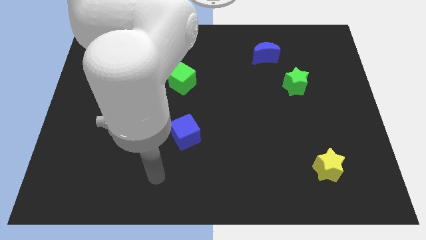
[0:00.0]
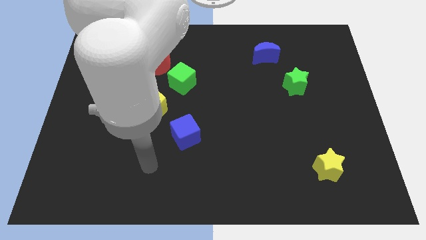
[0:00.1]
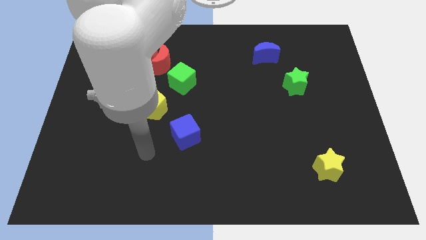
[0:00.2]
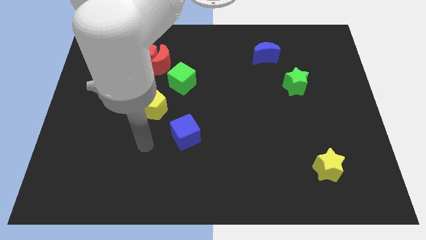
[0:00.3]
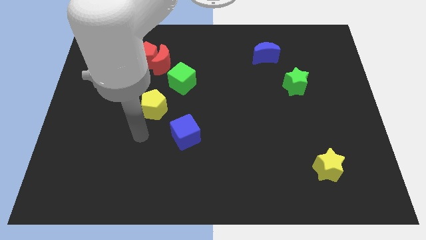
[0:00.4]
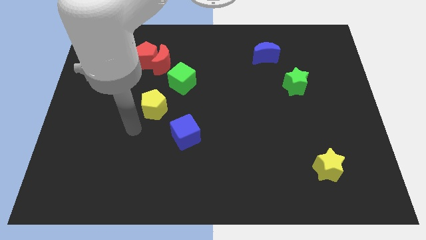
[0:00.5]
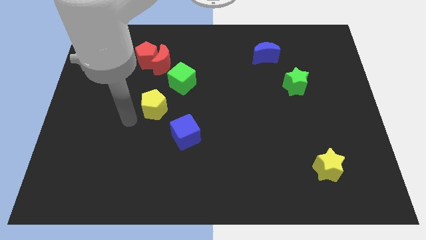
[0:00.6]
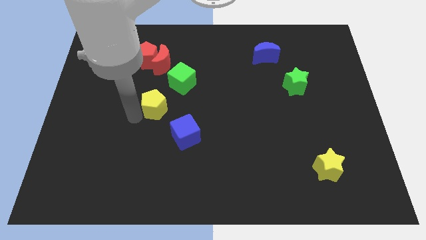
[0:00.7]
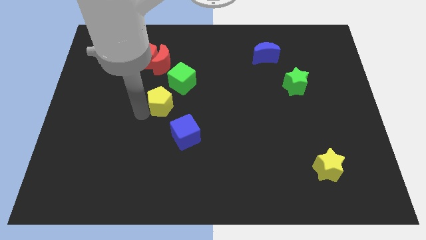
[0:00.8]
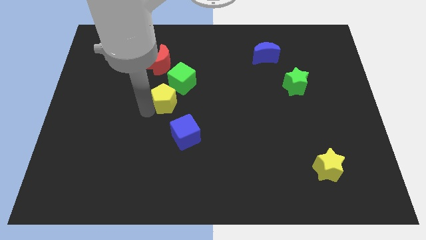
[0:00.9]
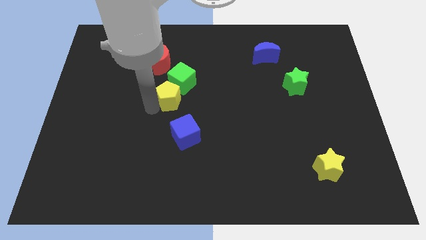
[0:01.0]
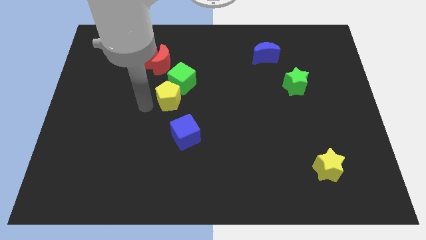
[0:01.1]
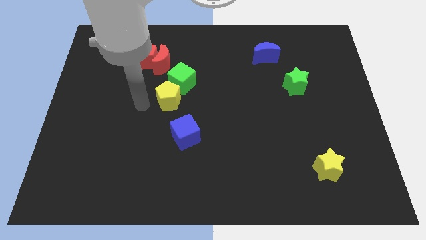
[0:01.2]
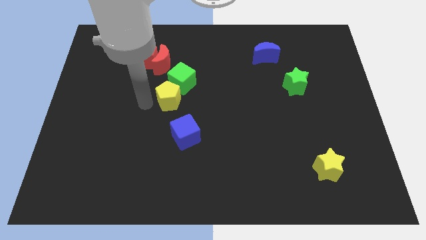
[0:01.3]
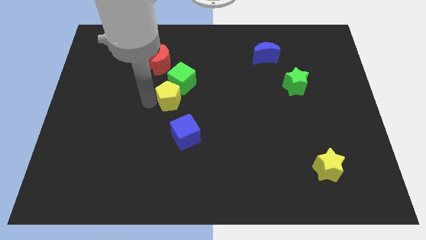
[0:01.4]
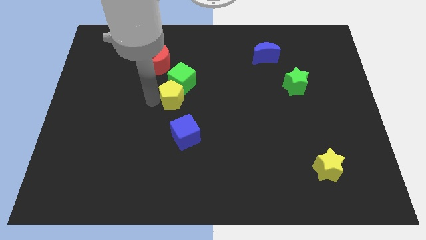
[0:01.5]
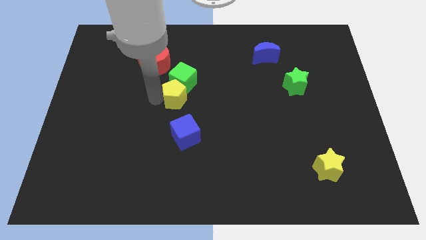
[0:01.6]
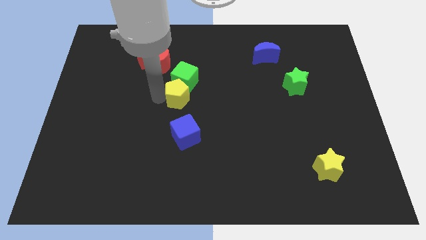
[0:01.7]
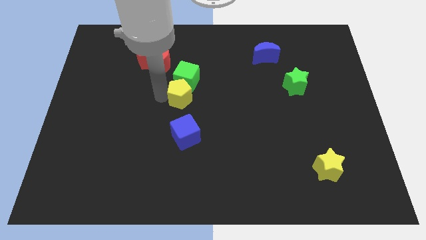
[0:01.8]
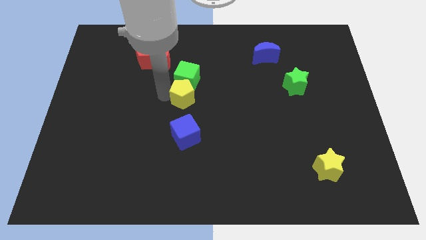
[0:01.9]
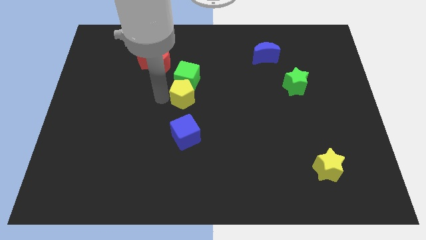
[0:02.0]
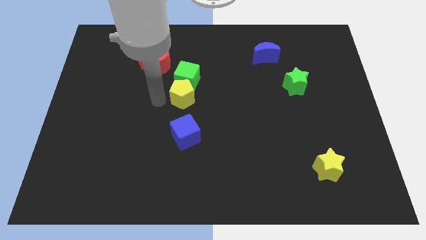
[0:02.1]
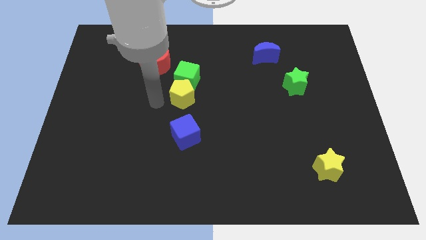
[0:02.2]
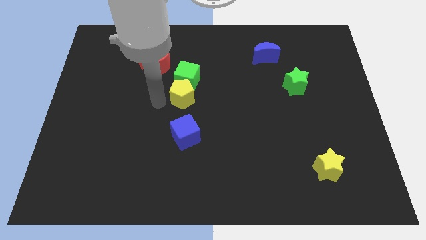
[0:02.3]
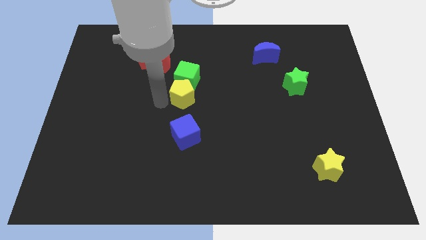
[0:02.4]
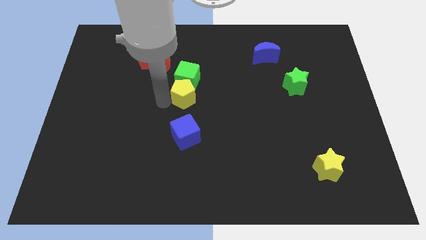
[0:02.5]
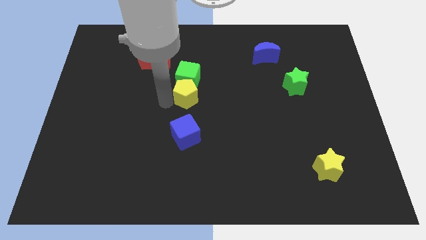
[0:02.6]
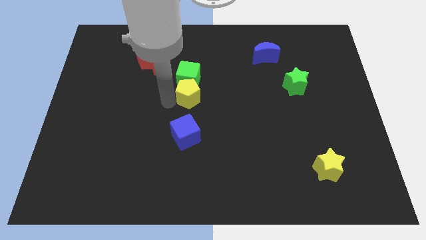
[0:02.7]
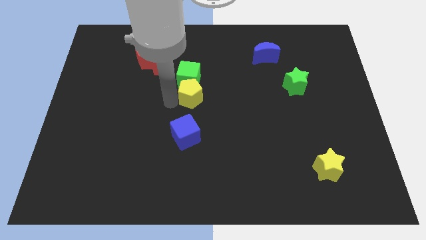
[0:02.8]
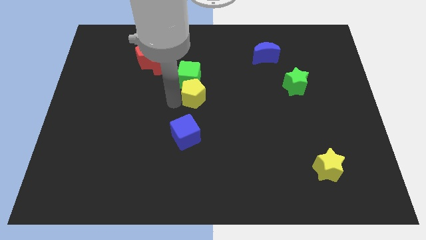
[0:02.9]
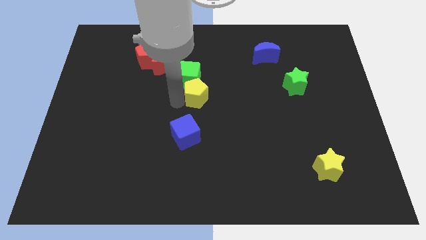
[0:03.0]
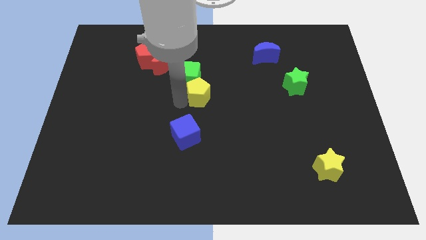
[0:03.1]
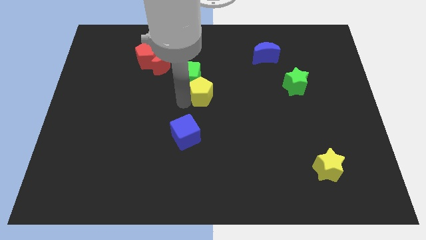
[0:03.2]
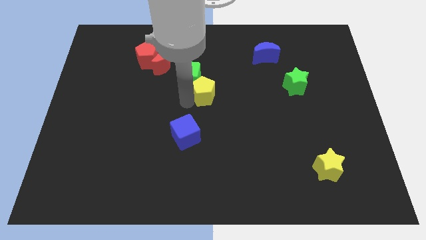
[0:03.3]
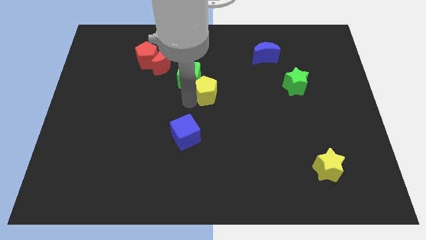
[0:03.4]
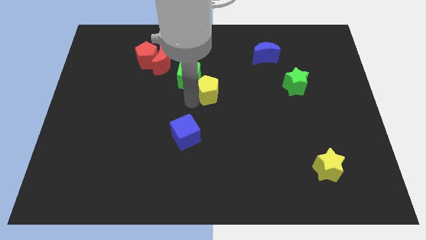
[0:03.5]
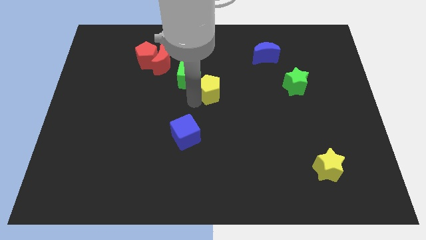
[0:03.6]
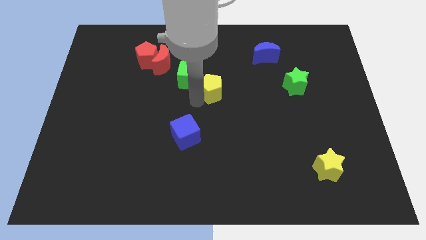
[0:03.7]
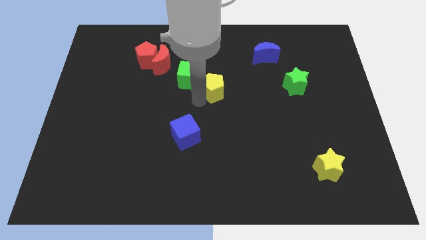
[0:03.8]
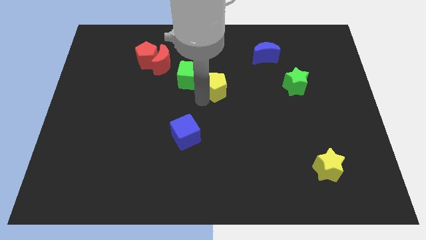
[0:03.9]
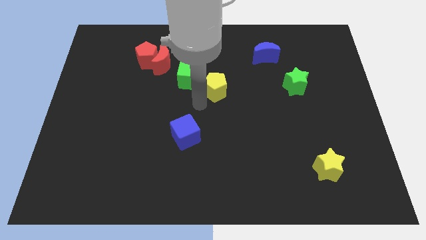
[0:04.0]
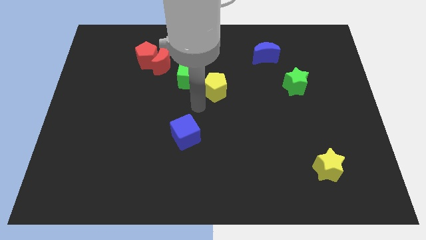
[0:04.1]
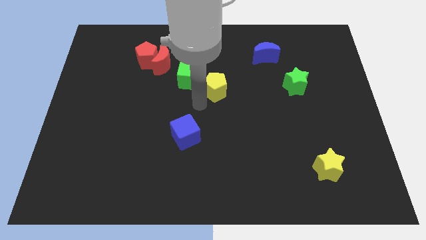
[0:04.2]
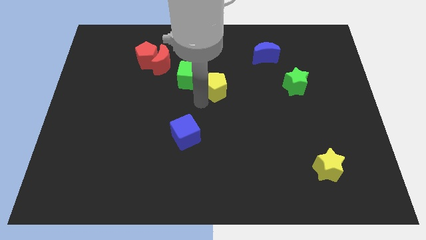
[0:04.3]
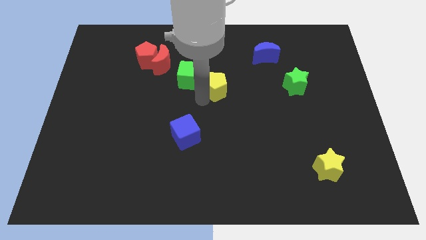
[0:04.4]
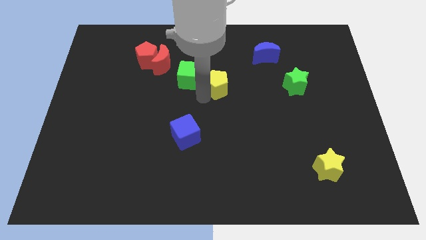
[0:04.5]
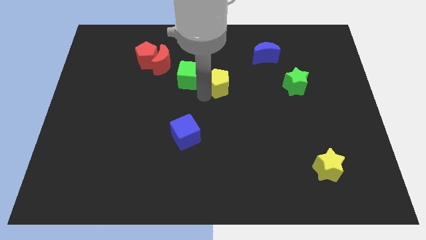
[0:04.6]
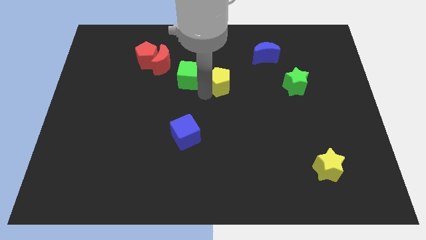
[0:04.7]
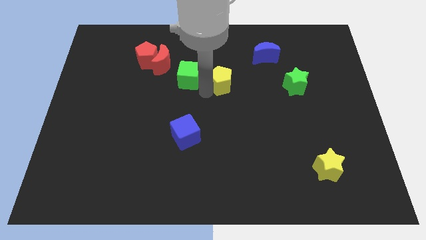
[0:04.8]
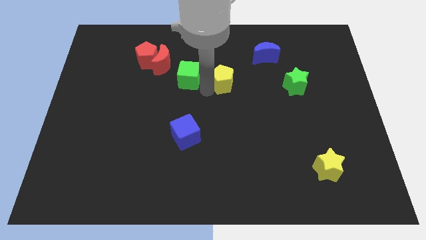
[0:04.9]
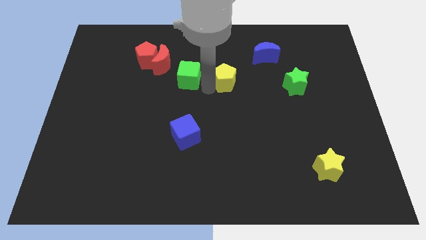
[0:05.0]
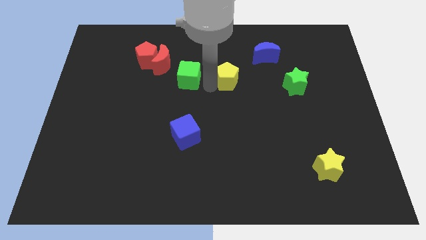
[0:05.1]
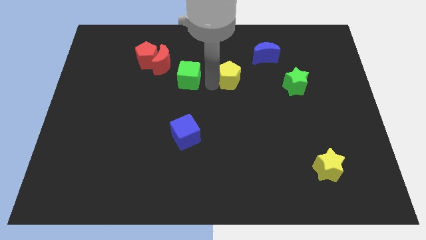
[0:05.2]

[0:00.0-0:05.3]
move the yellow pentagon to the bottom left of the blue moon

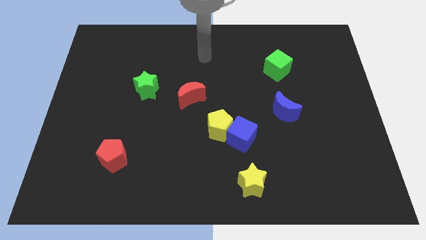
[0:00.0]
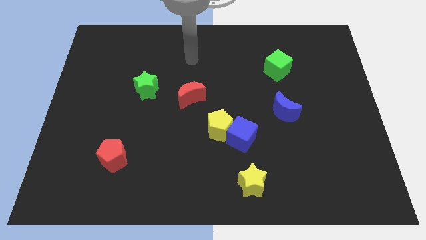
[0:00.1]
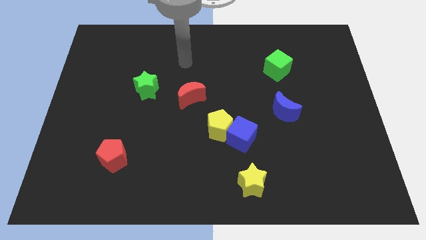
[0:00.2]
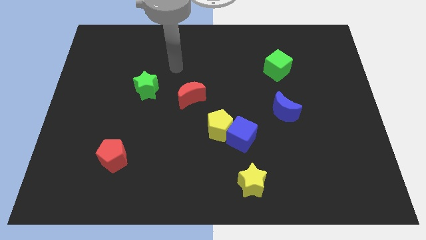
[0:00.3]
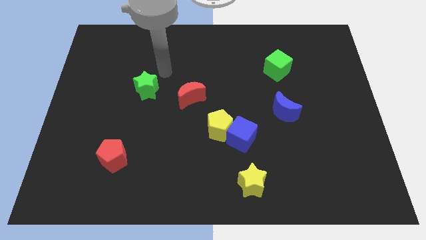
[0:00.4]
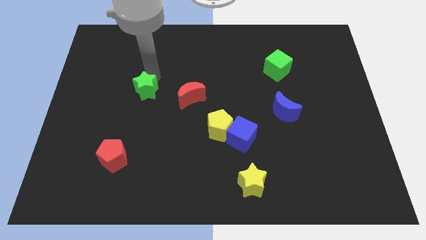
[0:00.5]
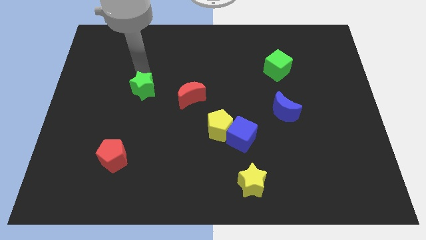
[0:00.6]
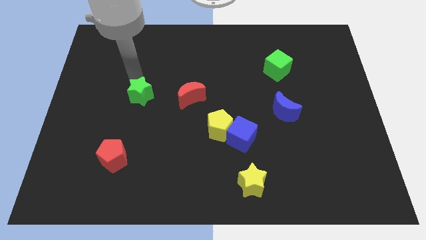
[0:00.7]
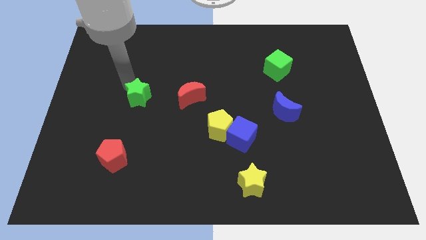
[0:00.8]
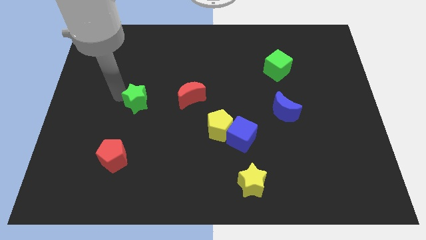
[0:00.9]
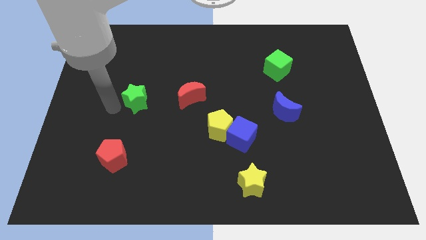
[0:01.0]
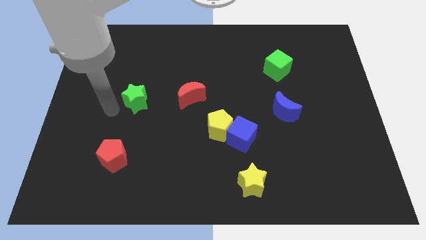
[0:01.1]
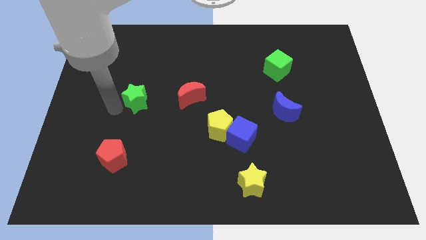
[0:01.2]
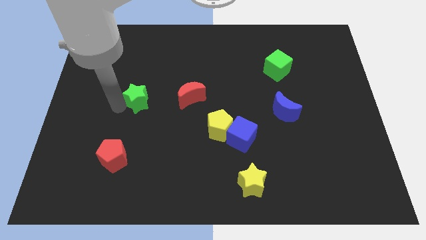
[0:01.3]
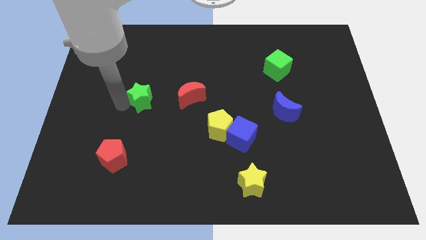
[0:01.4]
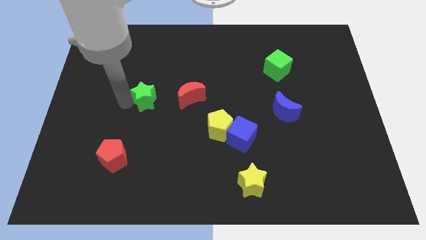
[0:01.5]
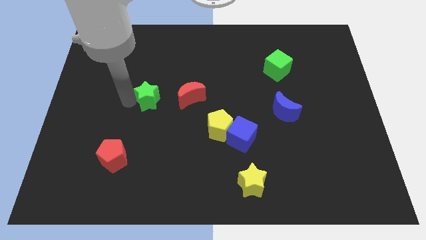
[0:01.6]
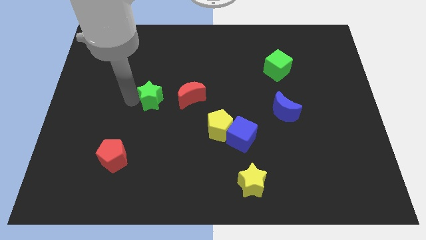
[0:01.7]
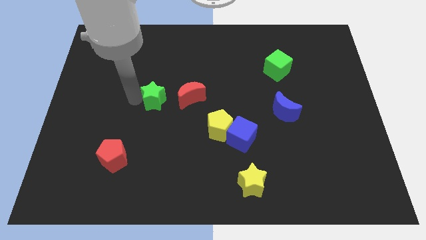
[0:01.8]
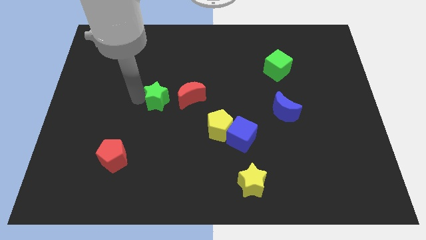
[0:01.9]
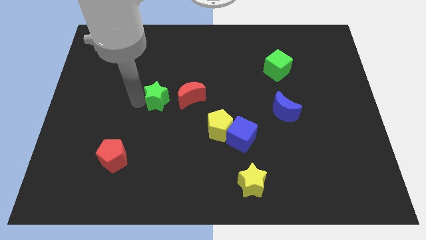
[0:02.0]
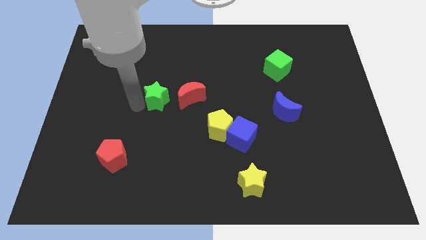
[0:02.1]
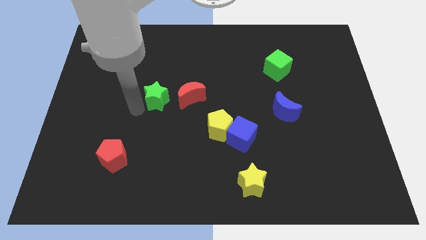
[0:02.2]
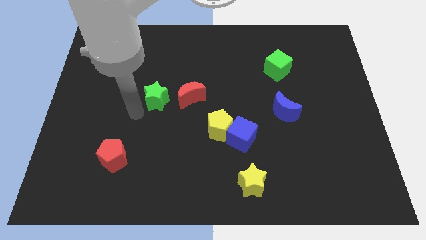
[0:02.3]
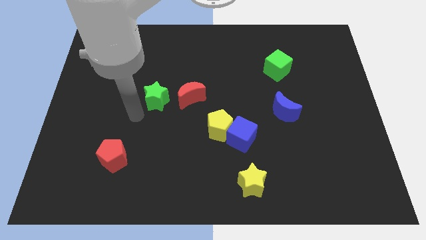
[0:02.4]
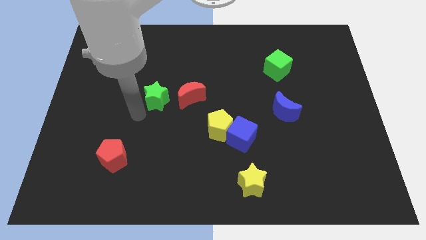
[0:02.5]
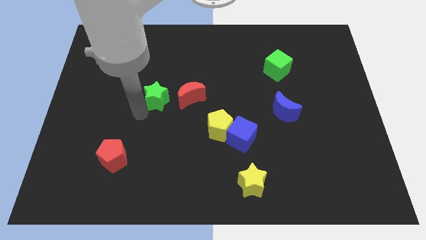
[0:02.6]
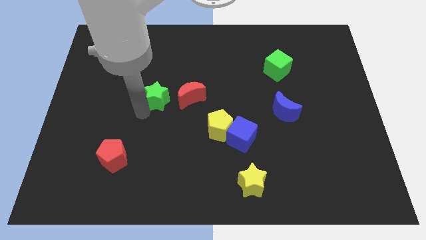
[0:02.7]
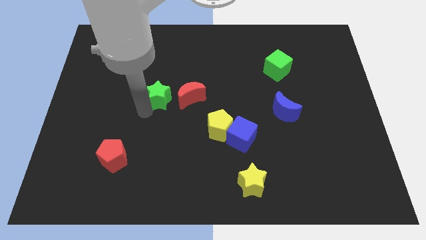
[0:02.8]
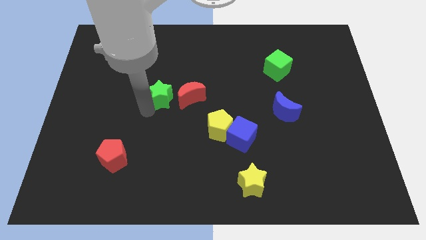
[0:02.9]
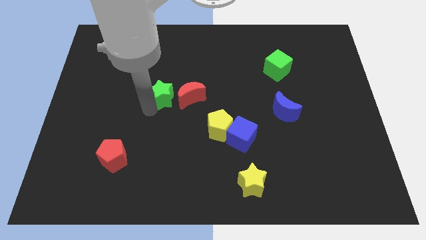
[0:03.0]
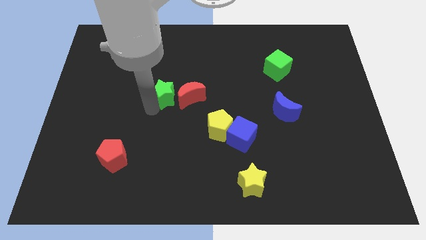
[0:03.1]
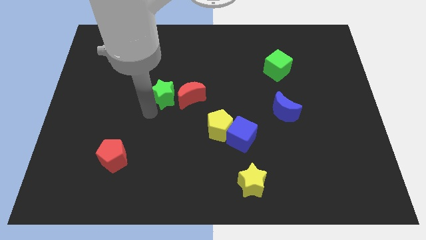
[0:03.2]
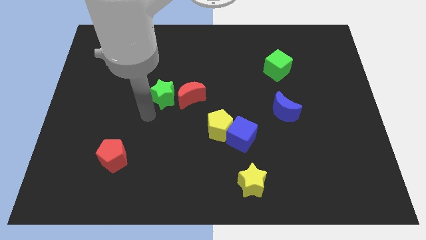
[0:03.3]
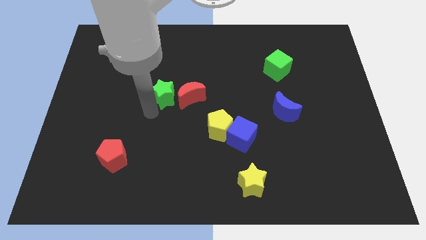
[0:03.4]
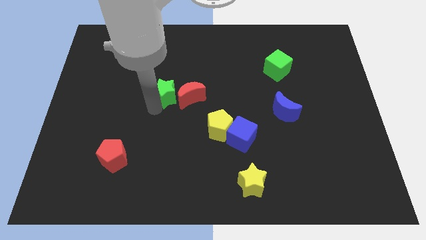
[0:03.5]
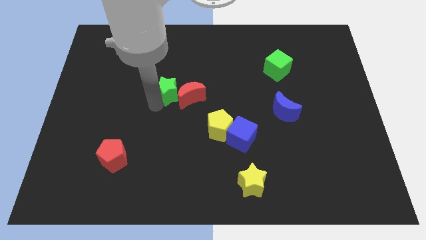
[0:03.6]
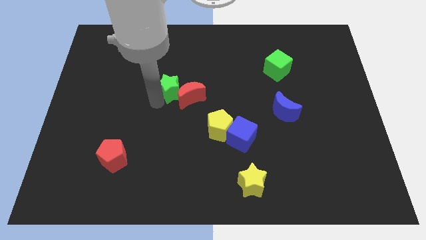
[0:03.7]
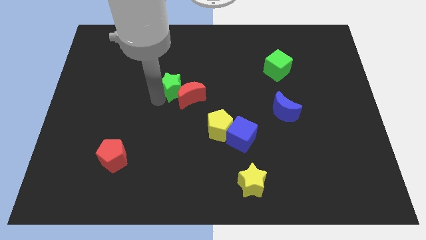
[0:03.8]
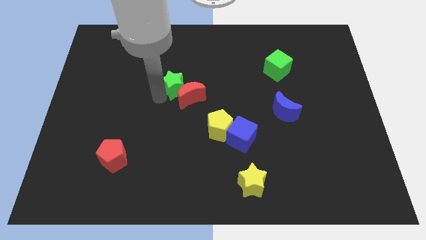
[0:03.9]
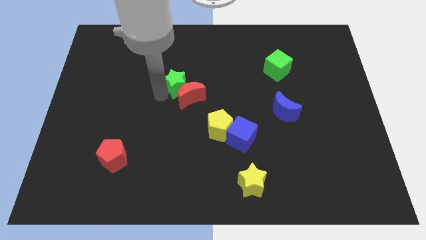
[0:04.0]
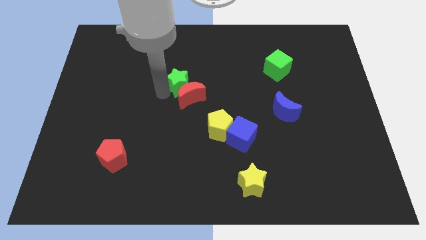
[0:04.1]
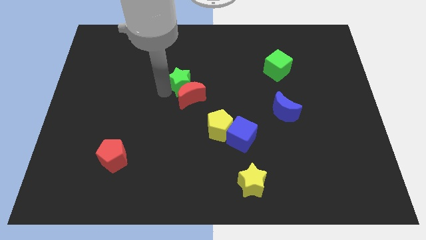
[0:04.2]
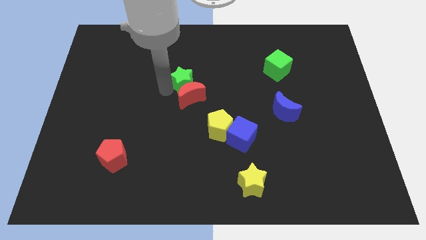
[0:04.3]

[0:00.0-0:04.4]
move the green star to the top right of the red moon
